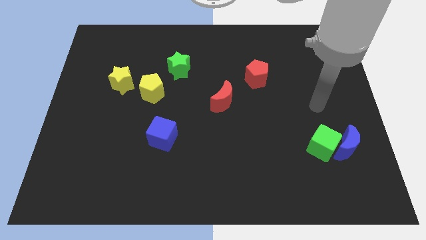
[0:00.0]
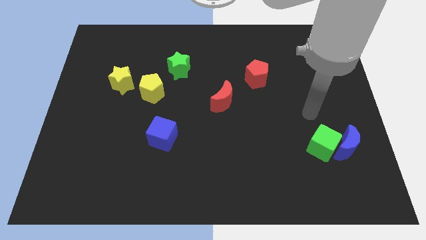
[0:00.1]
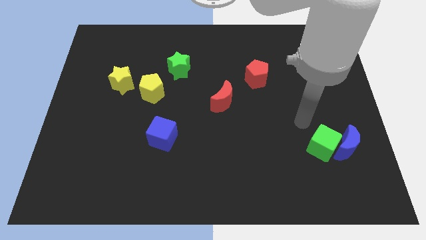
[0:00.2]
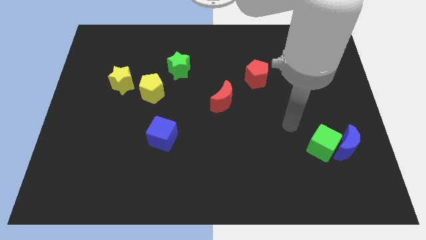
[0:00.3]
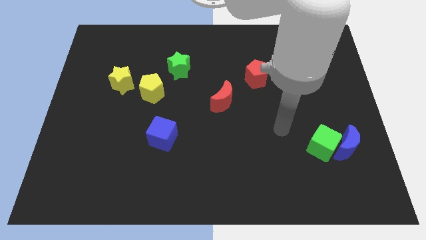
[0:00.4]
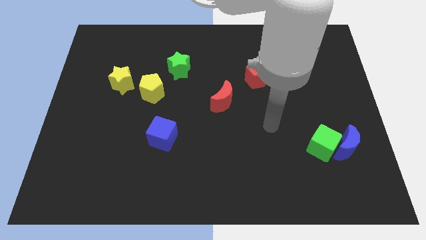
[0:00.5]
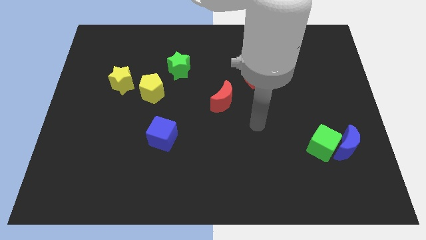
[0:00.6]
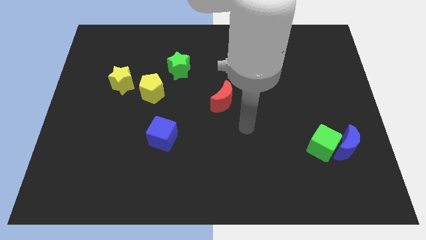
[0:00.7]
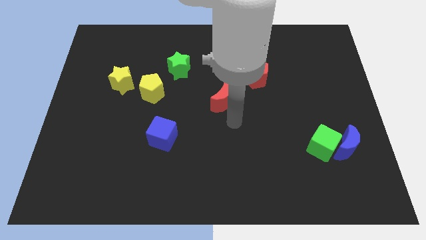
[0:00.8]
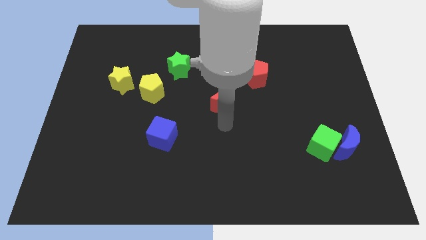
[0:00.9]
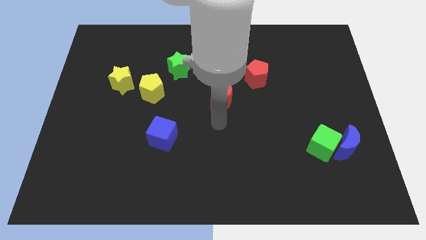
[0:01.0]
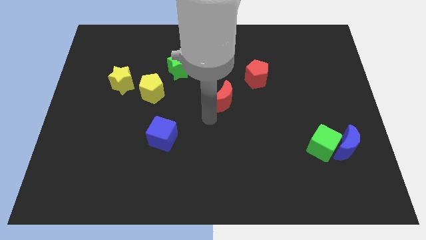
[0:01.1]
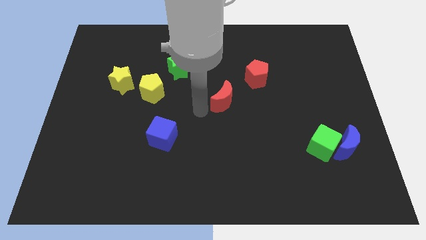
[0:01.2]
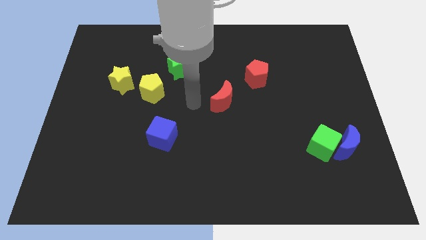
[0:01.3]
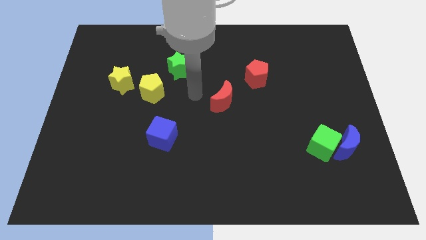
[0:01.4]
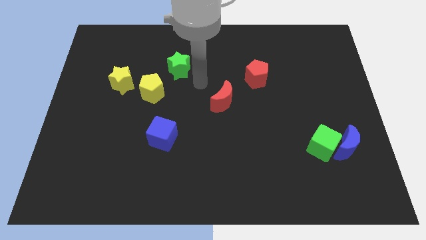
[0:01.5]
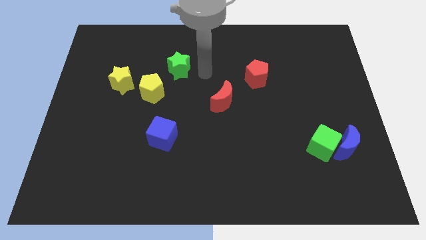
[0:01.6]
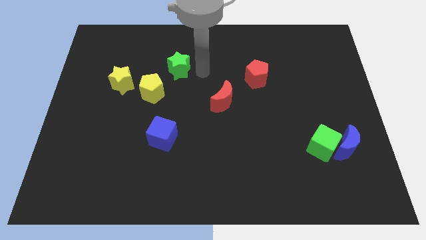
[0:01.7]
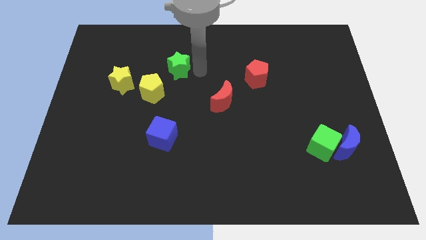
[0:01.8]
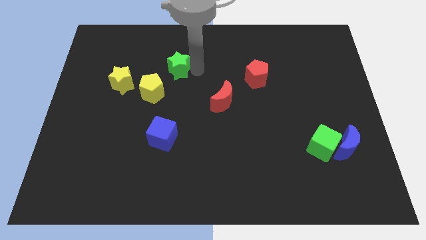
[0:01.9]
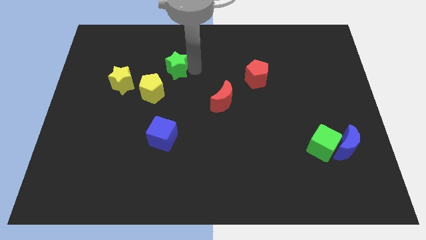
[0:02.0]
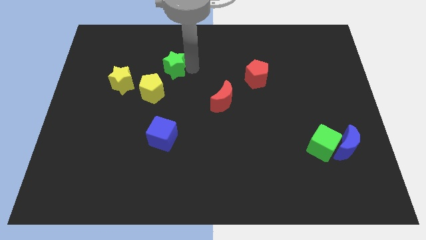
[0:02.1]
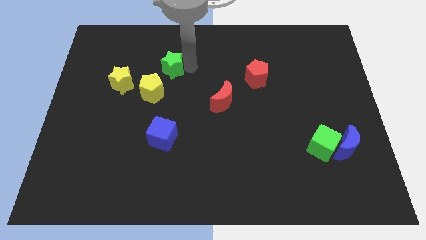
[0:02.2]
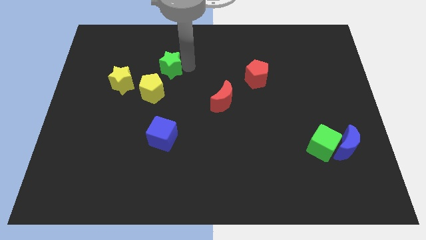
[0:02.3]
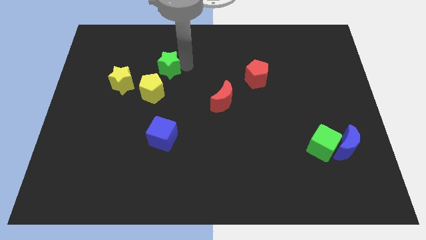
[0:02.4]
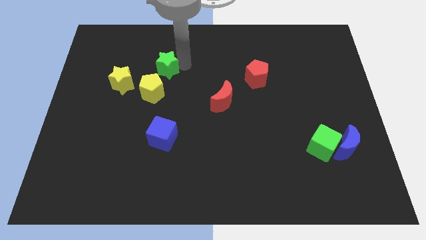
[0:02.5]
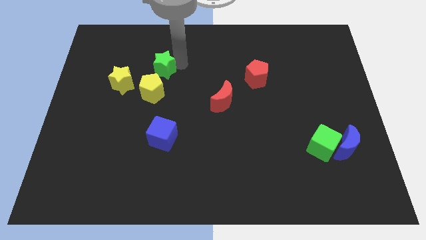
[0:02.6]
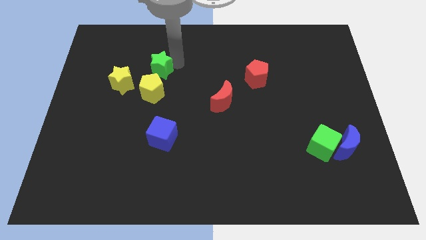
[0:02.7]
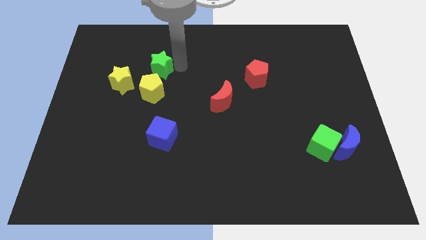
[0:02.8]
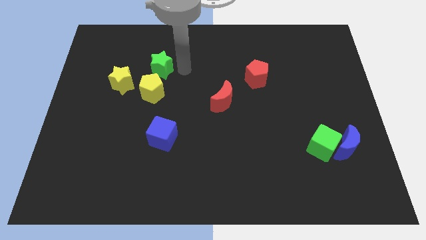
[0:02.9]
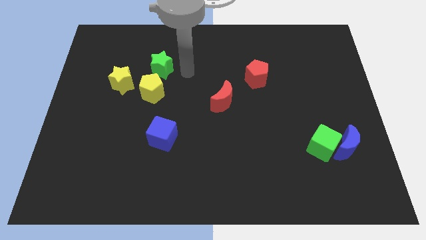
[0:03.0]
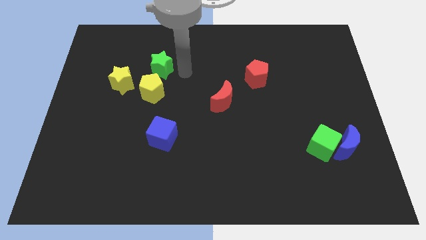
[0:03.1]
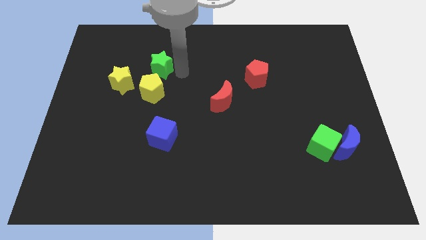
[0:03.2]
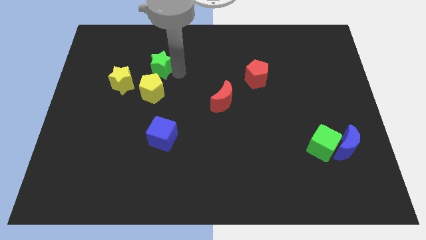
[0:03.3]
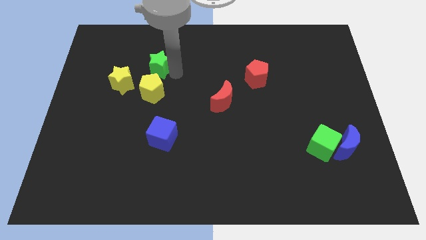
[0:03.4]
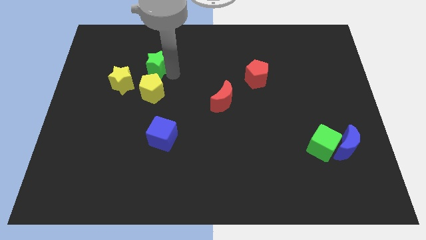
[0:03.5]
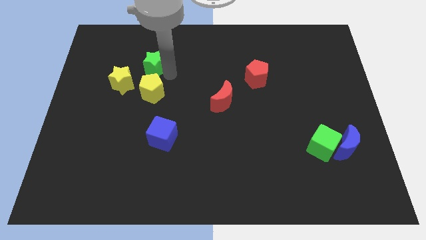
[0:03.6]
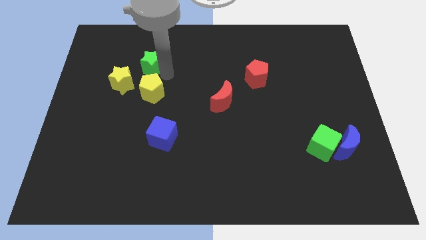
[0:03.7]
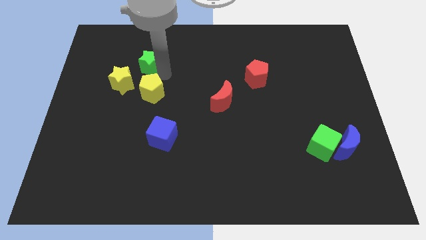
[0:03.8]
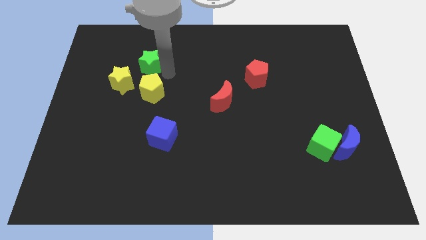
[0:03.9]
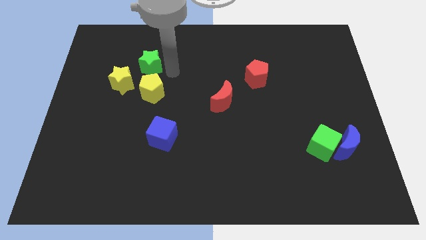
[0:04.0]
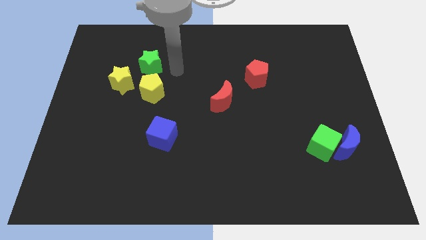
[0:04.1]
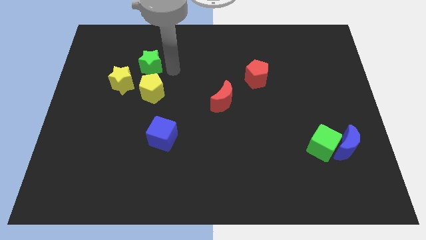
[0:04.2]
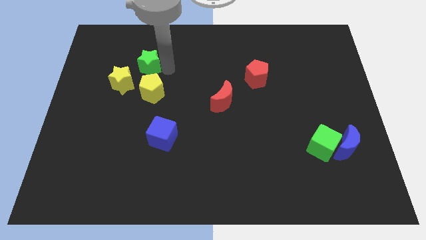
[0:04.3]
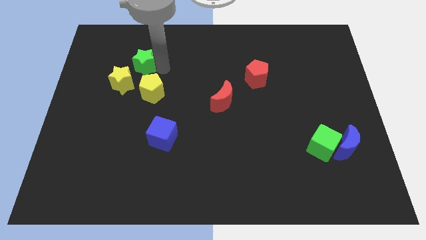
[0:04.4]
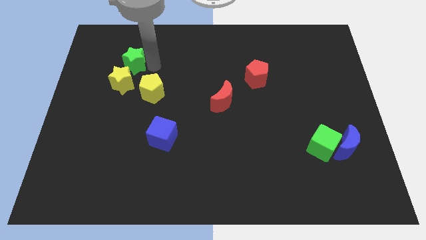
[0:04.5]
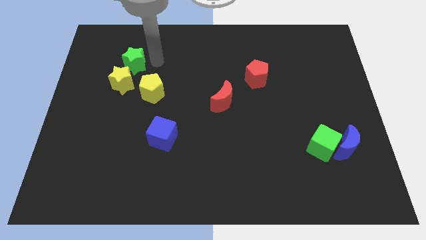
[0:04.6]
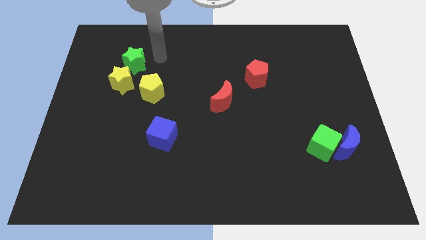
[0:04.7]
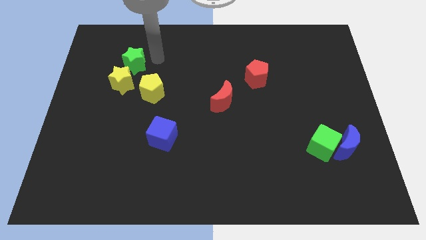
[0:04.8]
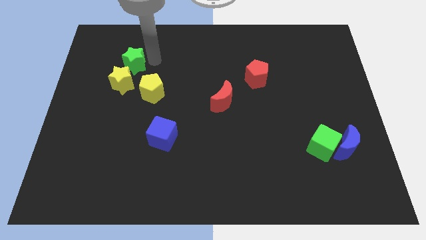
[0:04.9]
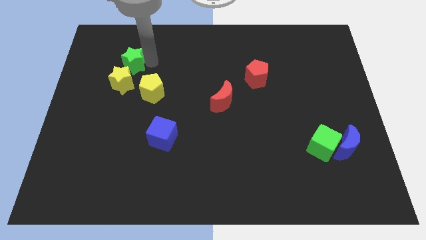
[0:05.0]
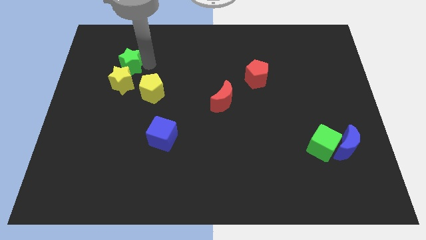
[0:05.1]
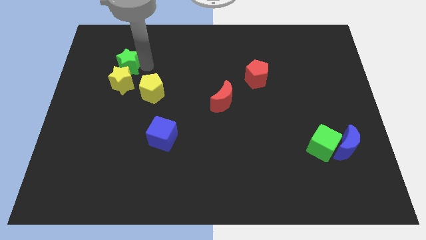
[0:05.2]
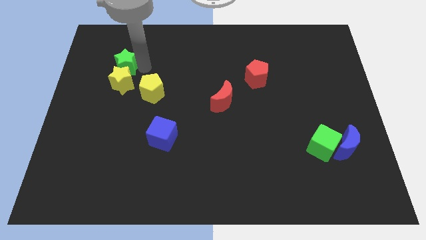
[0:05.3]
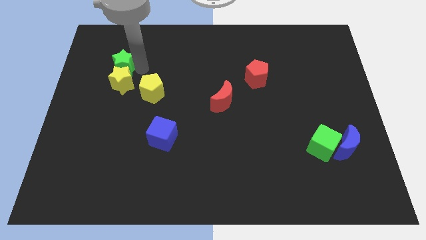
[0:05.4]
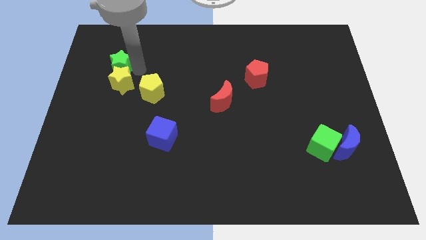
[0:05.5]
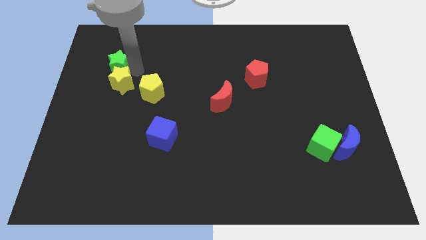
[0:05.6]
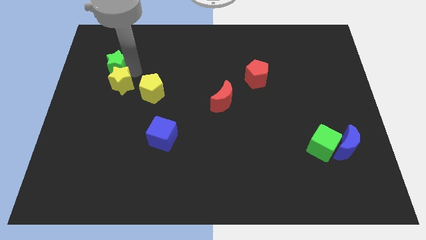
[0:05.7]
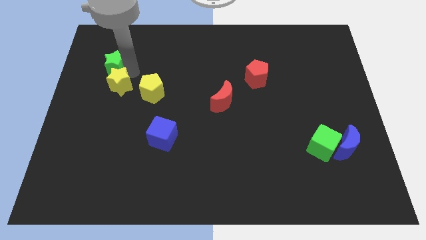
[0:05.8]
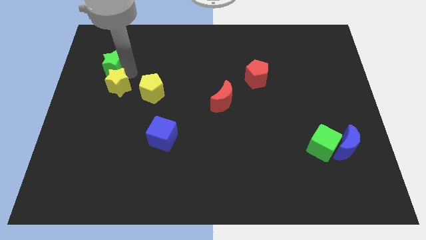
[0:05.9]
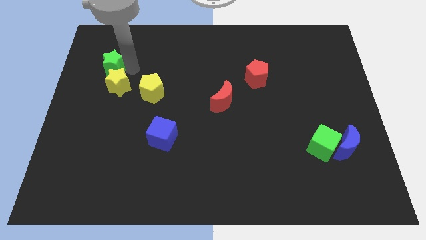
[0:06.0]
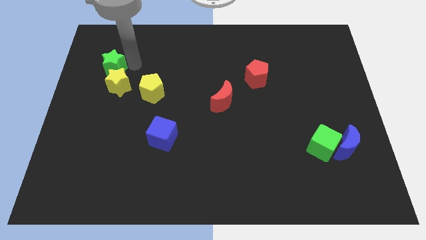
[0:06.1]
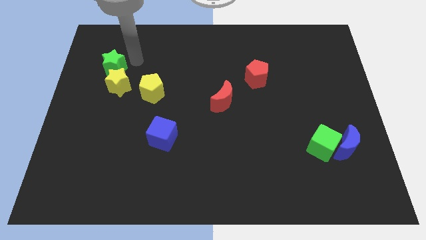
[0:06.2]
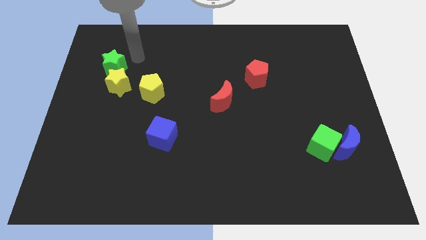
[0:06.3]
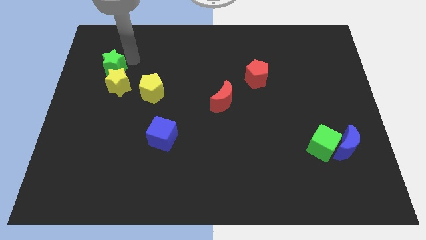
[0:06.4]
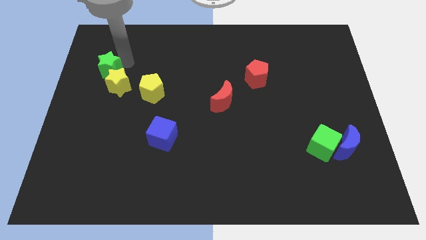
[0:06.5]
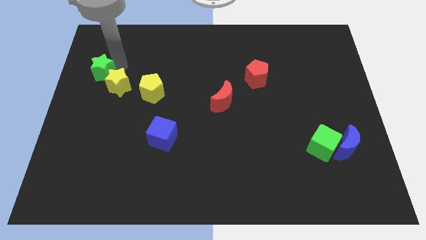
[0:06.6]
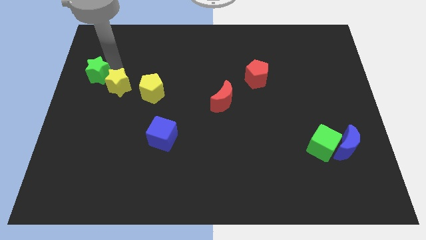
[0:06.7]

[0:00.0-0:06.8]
slide the green star to the center left
